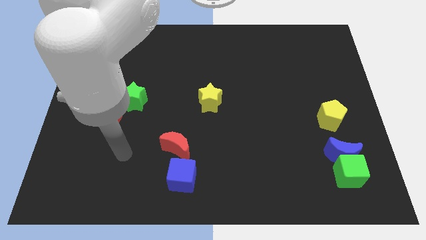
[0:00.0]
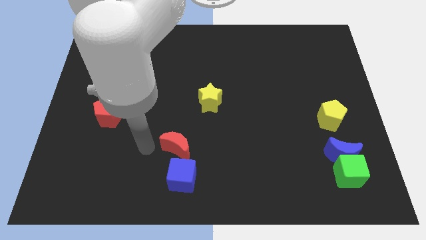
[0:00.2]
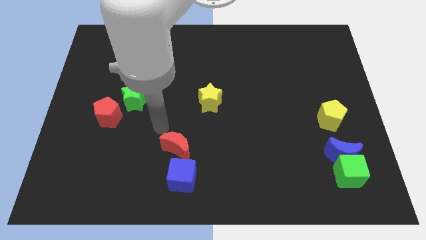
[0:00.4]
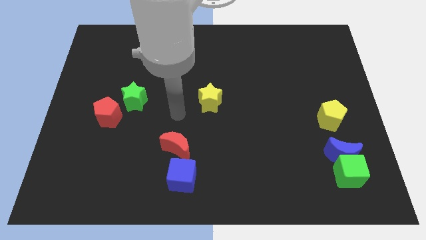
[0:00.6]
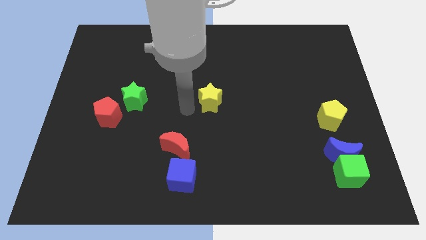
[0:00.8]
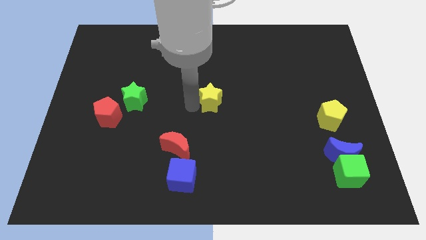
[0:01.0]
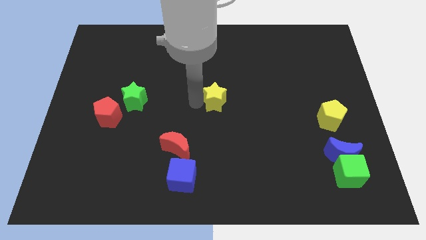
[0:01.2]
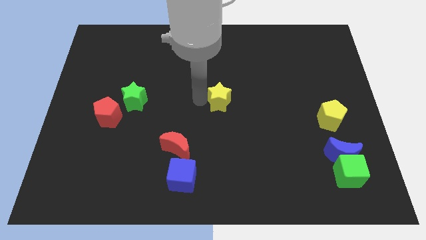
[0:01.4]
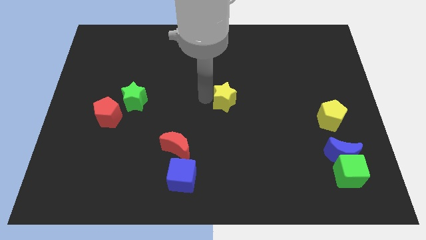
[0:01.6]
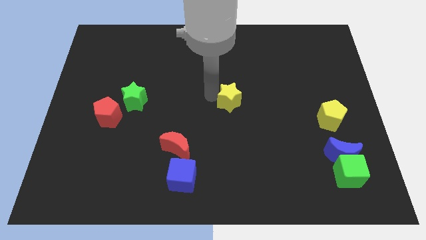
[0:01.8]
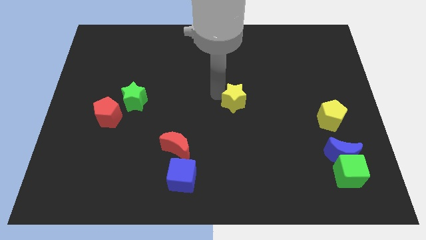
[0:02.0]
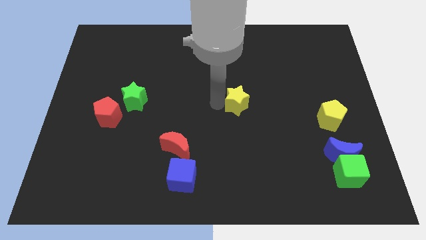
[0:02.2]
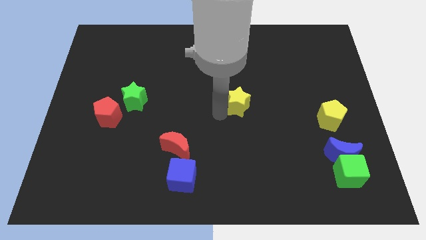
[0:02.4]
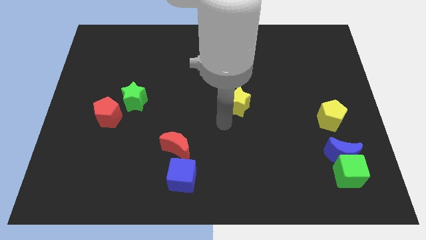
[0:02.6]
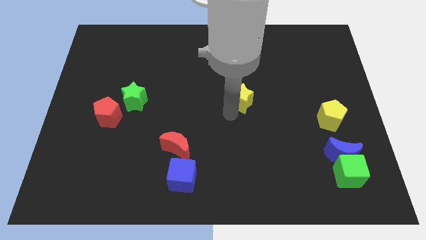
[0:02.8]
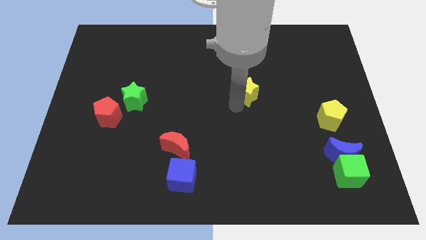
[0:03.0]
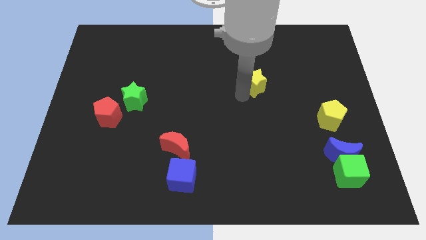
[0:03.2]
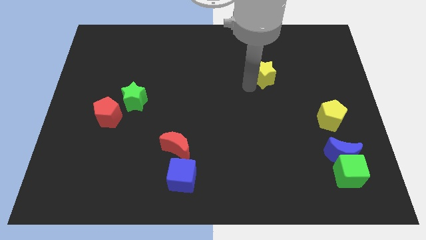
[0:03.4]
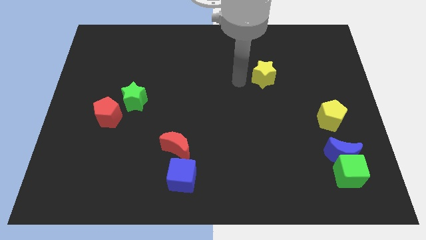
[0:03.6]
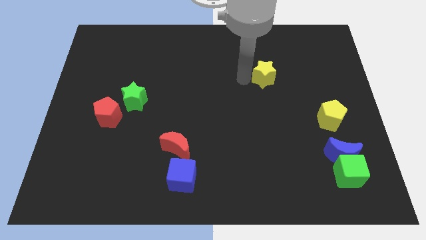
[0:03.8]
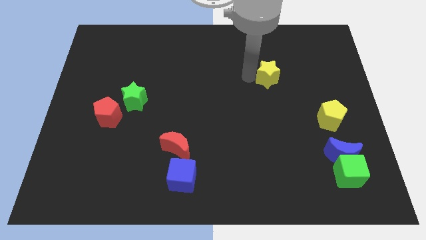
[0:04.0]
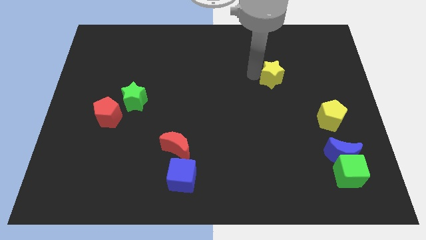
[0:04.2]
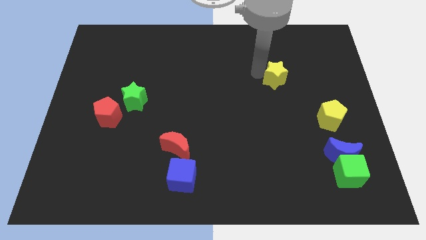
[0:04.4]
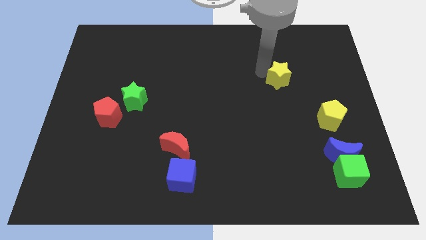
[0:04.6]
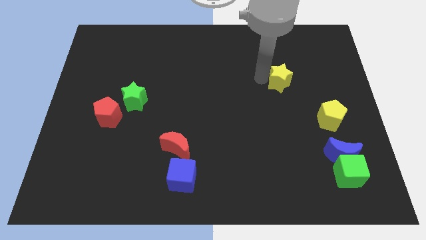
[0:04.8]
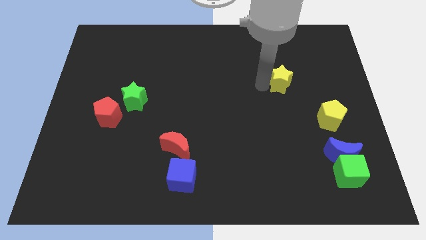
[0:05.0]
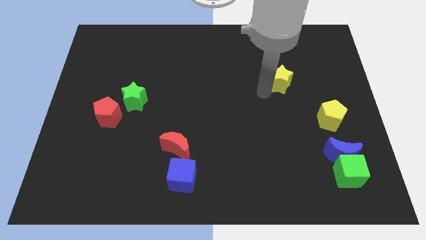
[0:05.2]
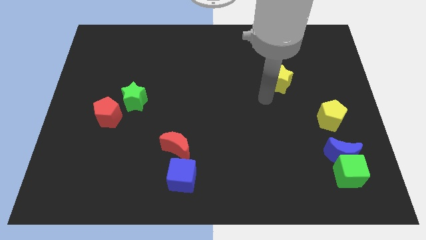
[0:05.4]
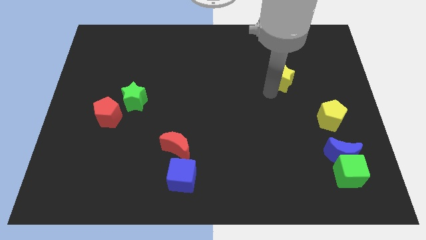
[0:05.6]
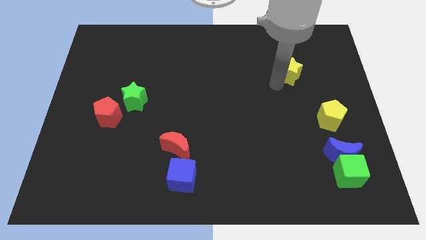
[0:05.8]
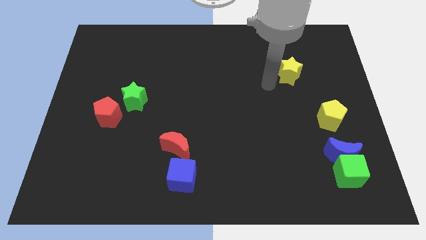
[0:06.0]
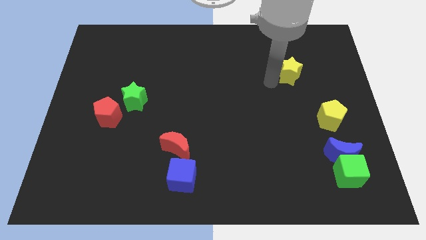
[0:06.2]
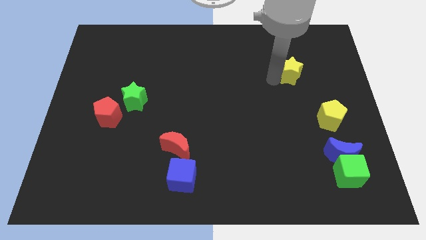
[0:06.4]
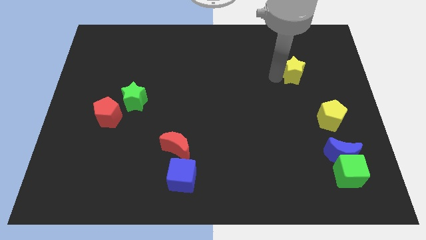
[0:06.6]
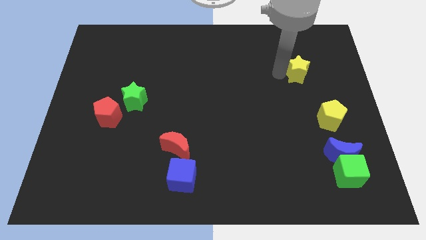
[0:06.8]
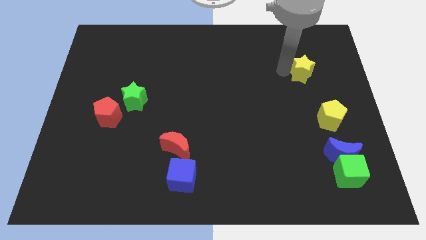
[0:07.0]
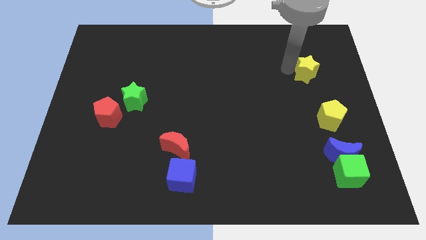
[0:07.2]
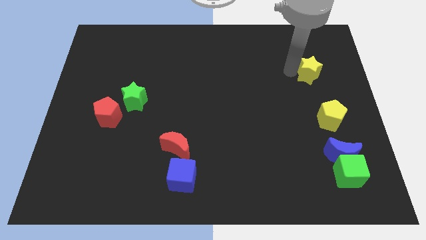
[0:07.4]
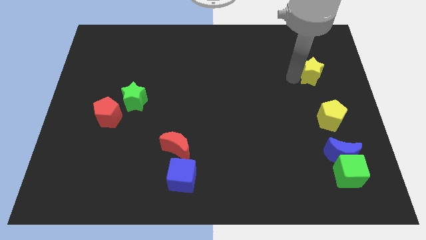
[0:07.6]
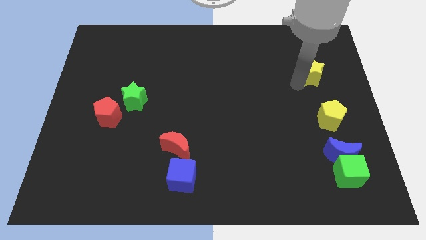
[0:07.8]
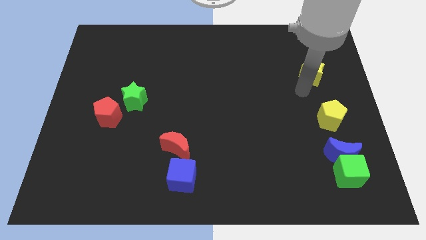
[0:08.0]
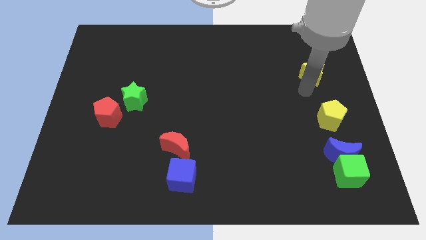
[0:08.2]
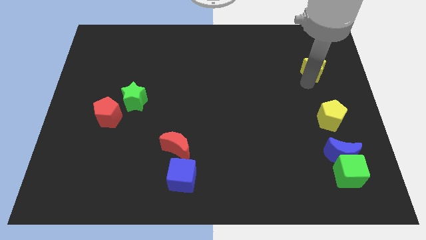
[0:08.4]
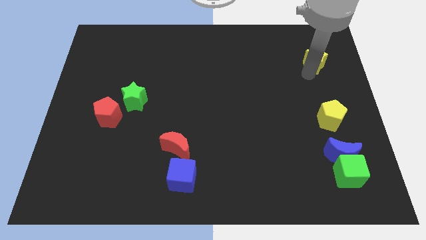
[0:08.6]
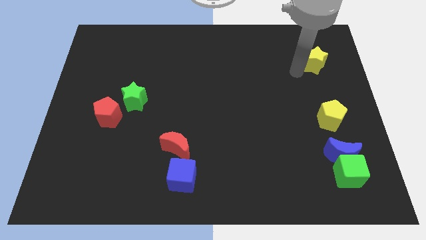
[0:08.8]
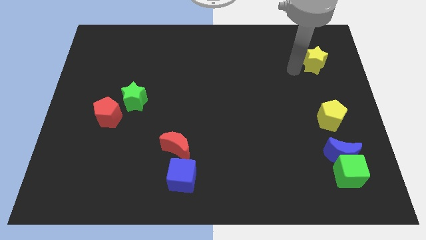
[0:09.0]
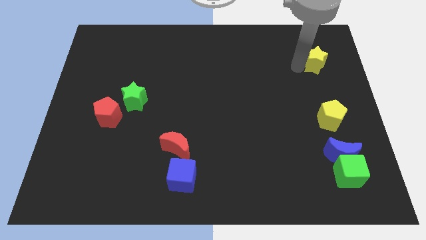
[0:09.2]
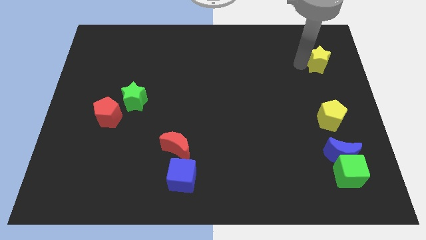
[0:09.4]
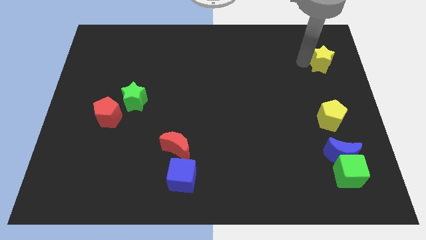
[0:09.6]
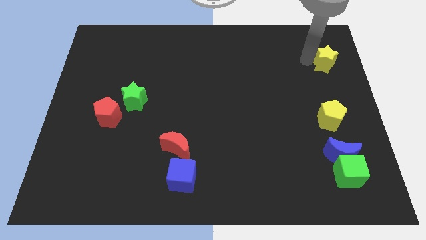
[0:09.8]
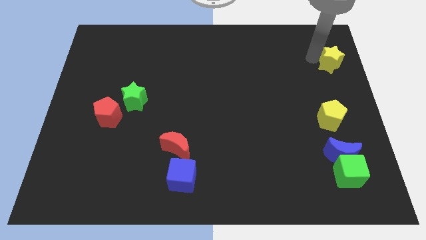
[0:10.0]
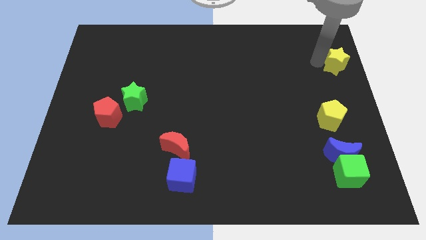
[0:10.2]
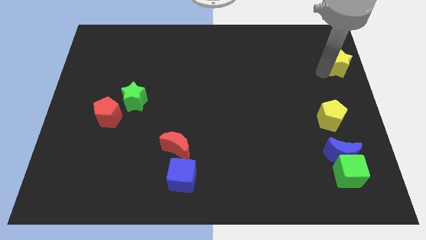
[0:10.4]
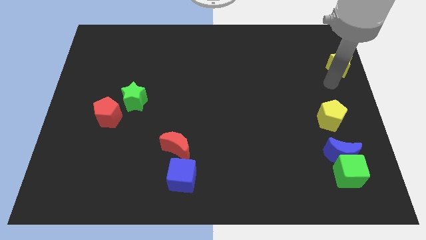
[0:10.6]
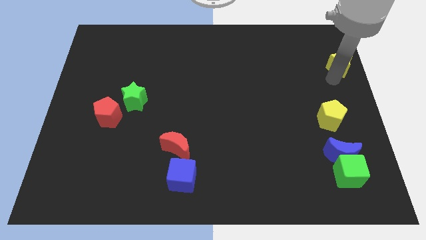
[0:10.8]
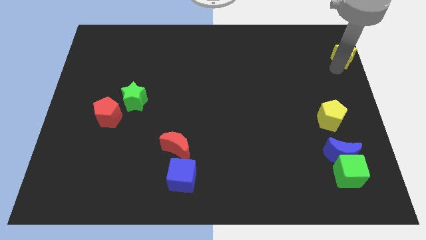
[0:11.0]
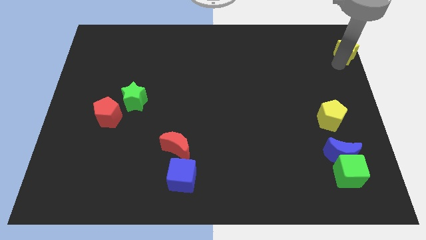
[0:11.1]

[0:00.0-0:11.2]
put the yellow star to the upper right corner
